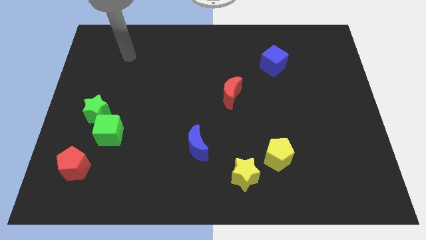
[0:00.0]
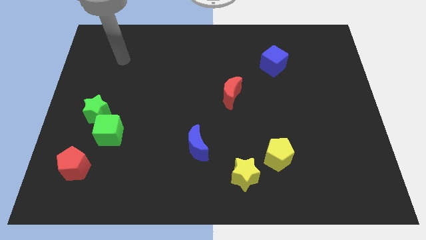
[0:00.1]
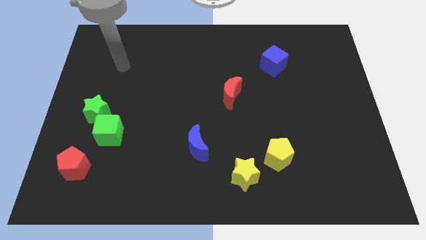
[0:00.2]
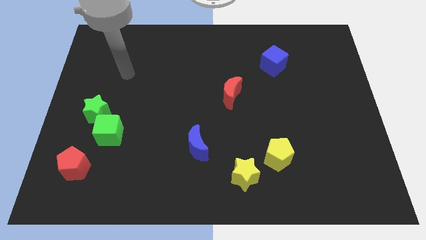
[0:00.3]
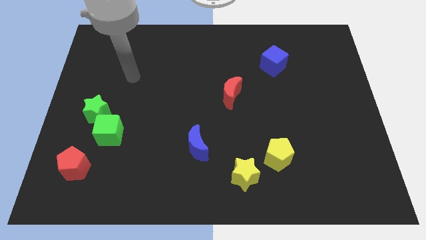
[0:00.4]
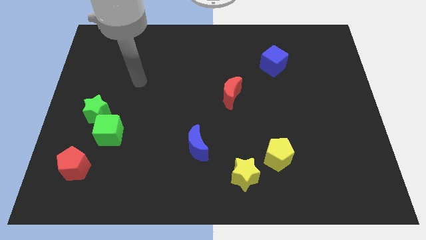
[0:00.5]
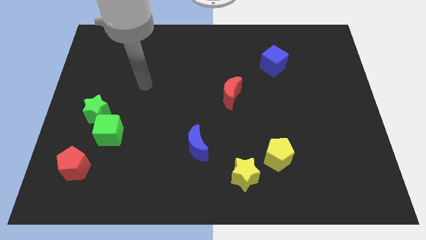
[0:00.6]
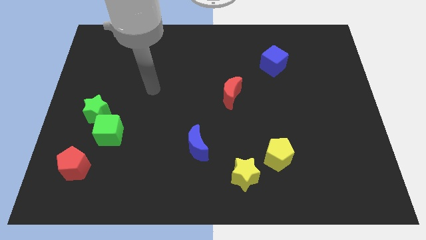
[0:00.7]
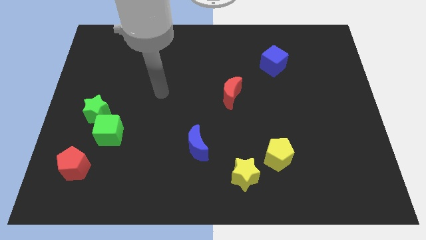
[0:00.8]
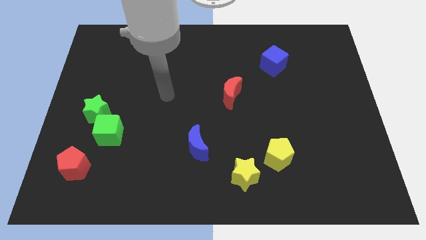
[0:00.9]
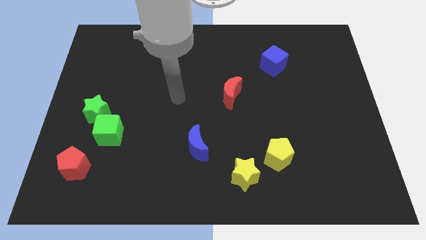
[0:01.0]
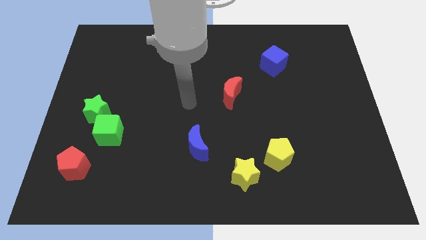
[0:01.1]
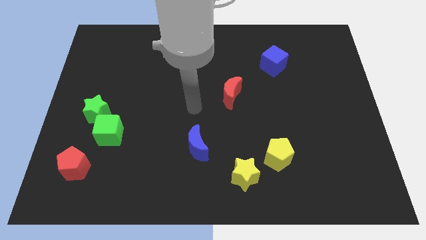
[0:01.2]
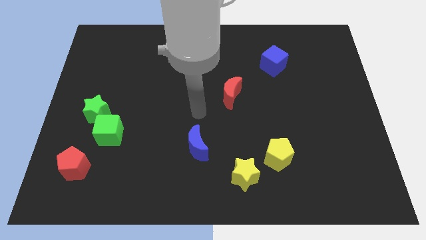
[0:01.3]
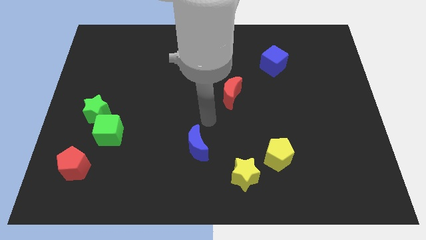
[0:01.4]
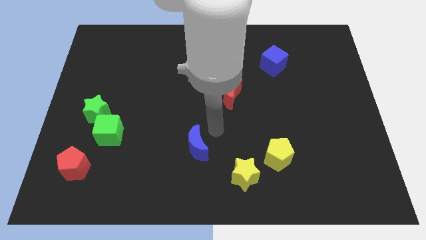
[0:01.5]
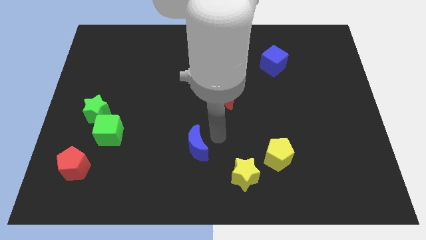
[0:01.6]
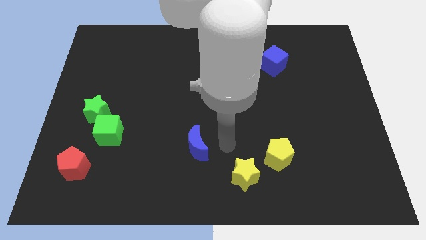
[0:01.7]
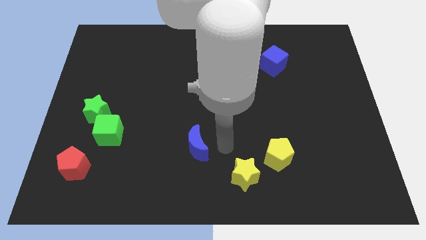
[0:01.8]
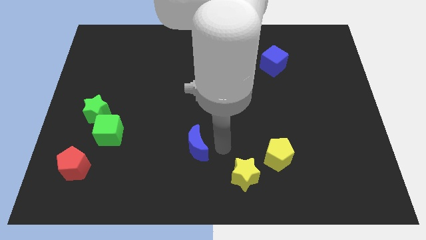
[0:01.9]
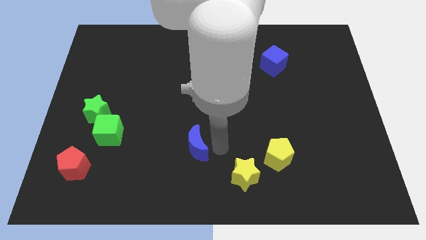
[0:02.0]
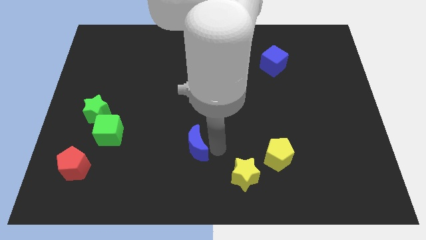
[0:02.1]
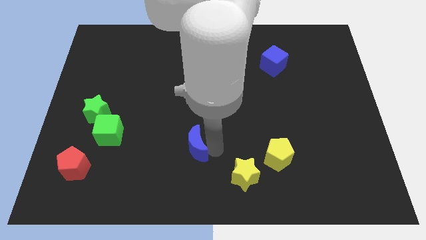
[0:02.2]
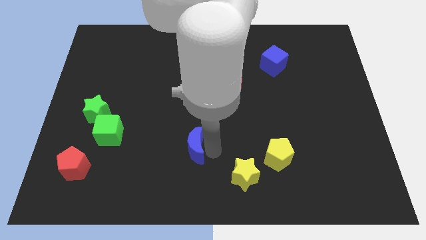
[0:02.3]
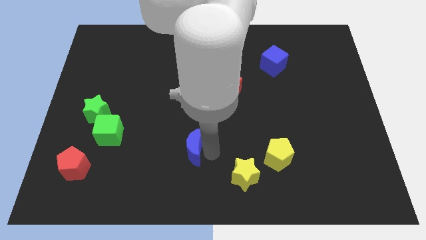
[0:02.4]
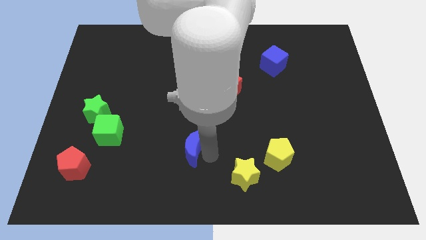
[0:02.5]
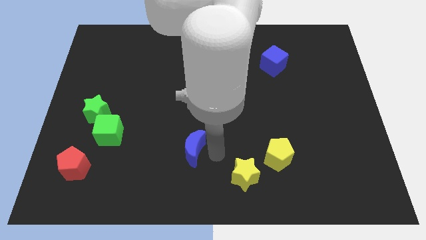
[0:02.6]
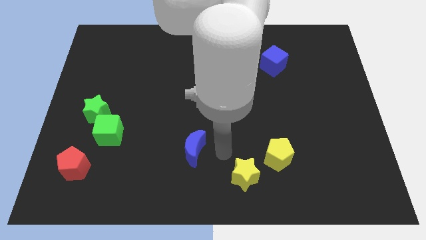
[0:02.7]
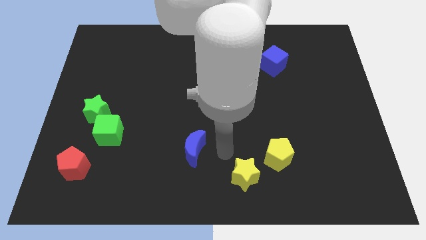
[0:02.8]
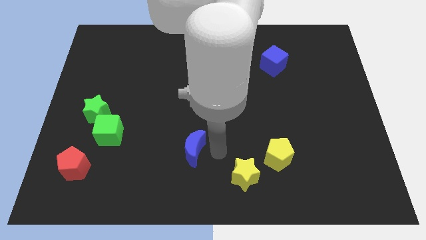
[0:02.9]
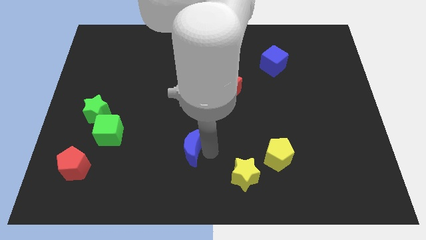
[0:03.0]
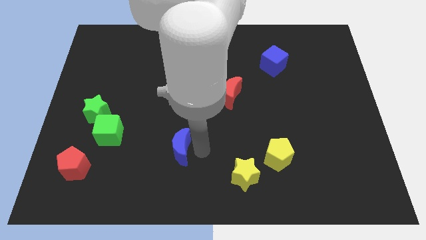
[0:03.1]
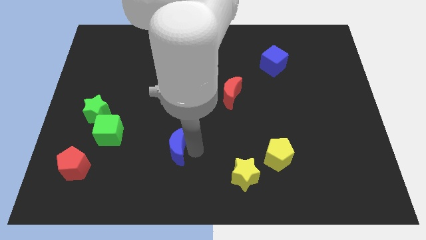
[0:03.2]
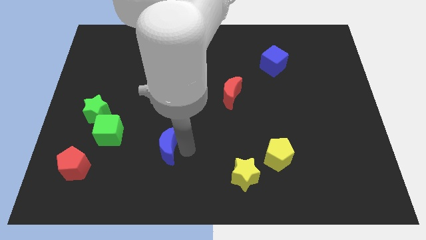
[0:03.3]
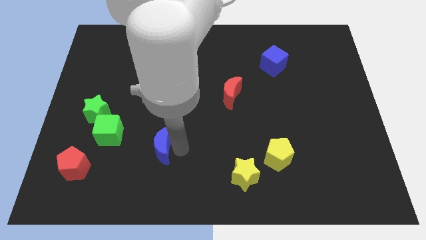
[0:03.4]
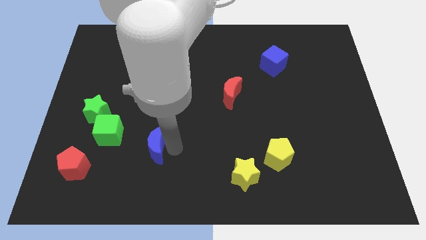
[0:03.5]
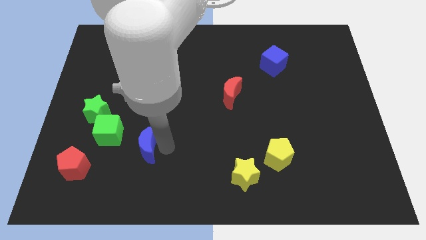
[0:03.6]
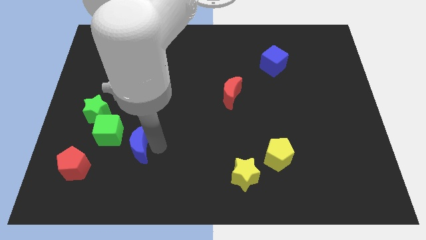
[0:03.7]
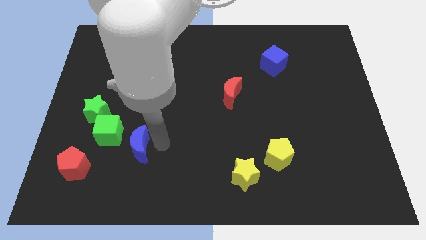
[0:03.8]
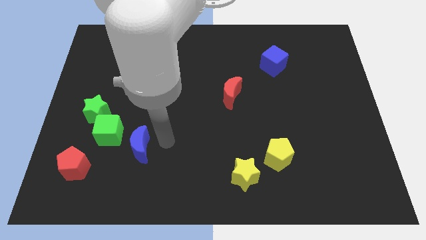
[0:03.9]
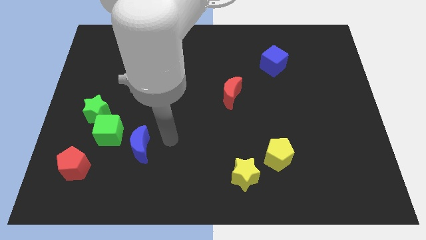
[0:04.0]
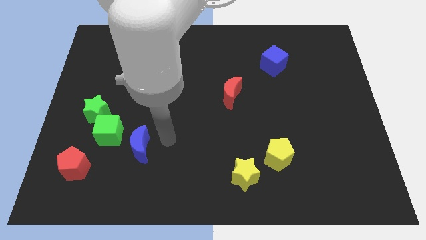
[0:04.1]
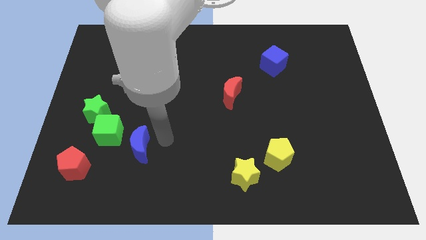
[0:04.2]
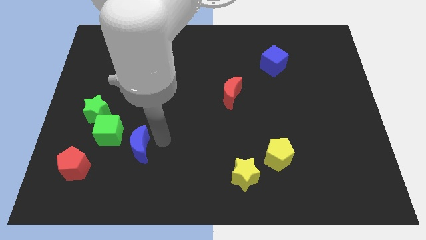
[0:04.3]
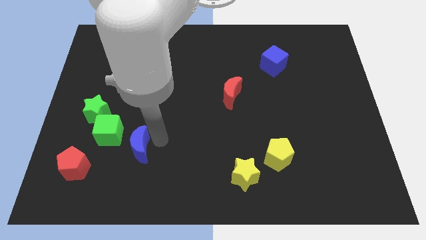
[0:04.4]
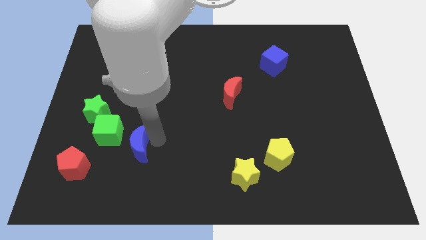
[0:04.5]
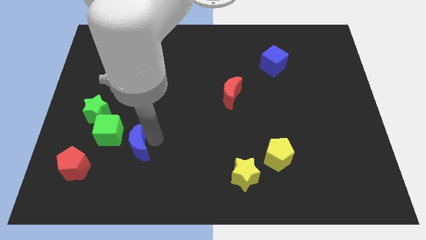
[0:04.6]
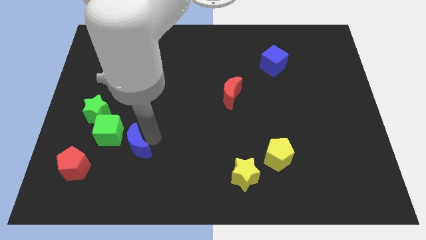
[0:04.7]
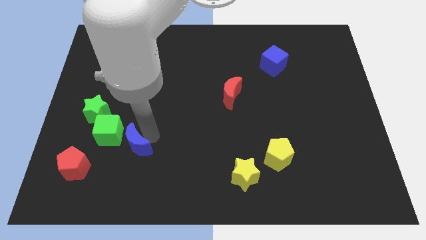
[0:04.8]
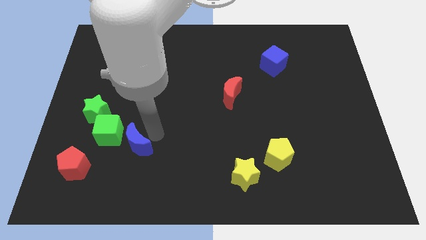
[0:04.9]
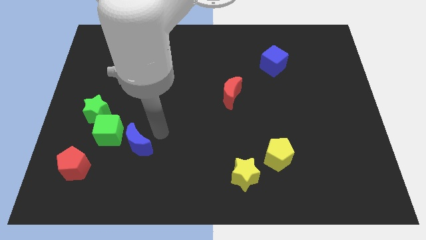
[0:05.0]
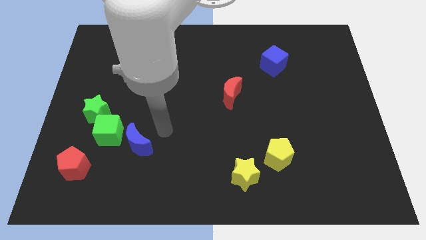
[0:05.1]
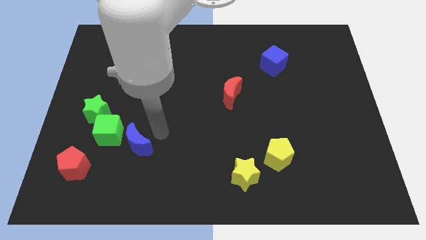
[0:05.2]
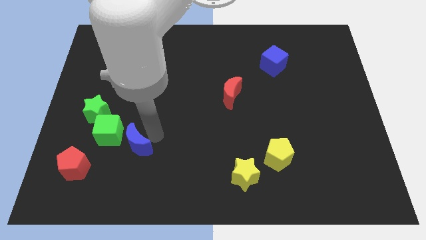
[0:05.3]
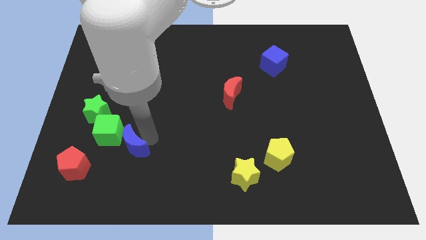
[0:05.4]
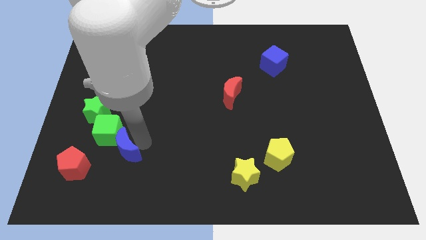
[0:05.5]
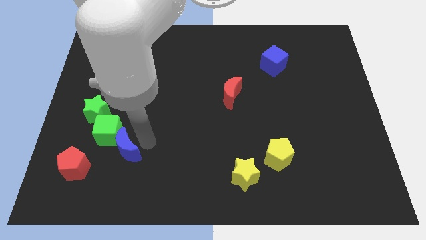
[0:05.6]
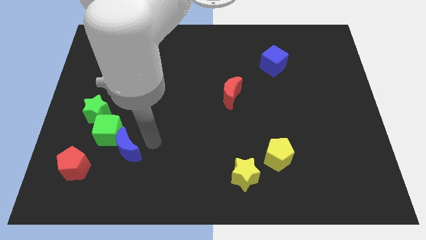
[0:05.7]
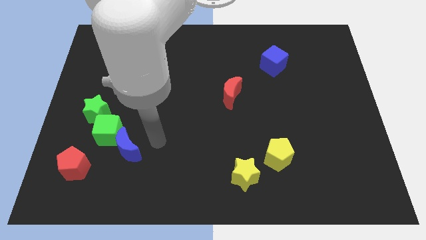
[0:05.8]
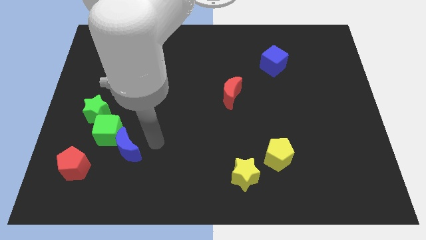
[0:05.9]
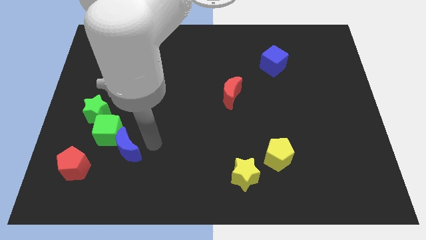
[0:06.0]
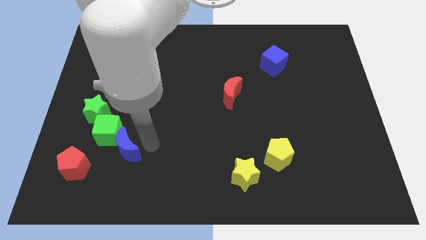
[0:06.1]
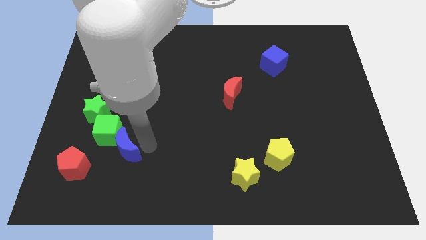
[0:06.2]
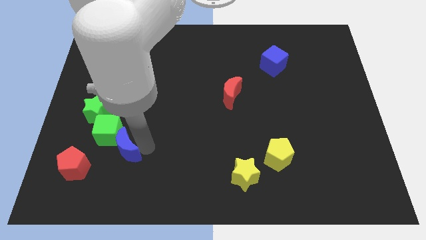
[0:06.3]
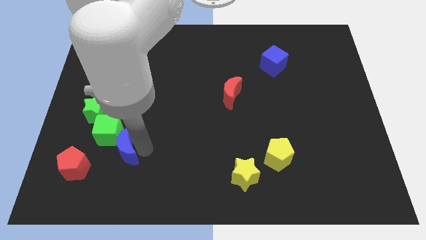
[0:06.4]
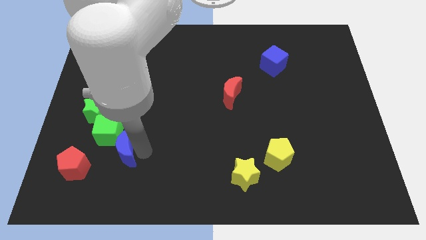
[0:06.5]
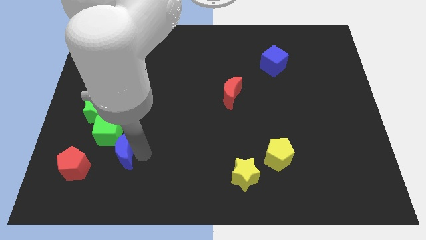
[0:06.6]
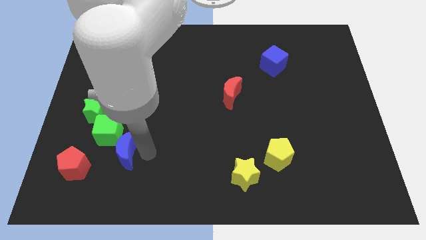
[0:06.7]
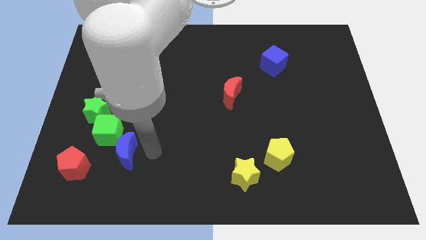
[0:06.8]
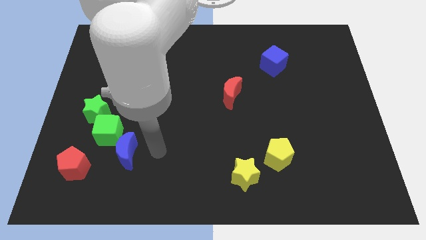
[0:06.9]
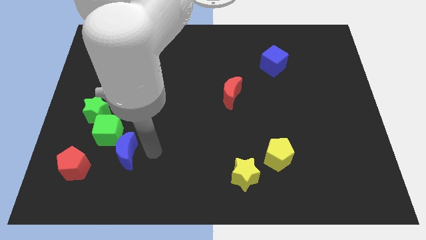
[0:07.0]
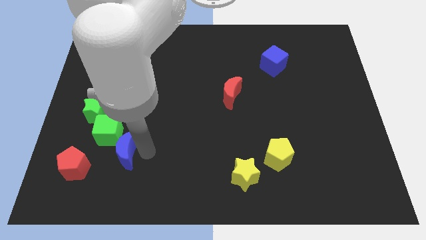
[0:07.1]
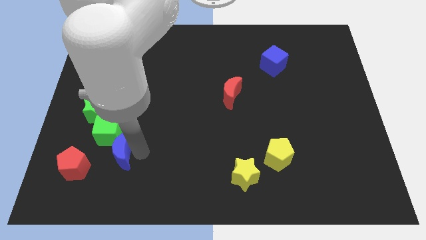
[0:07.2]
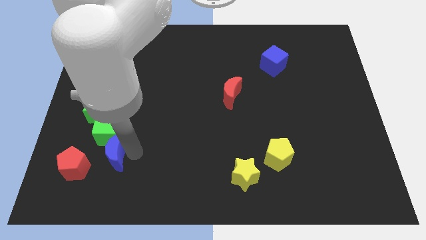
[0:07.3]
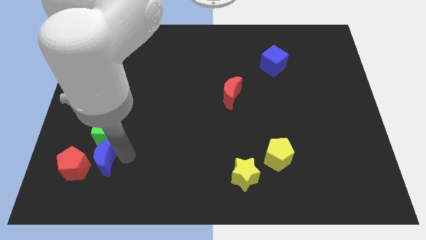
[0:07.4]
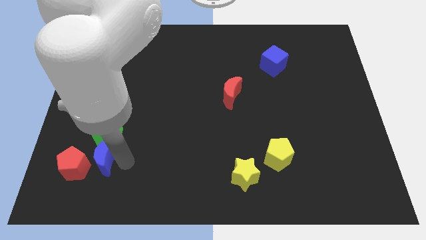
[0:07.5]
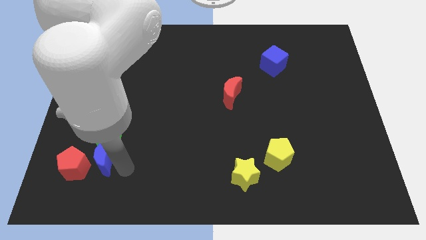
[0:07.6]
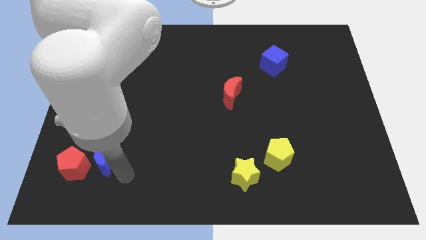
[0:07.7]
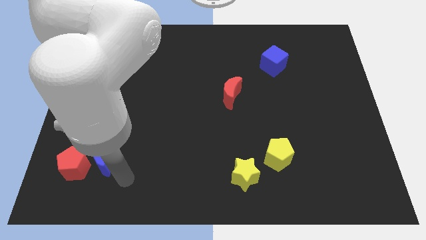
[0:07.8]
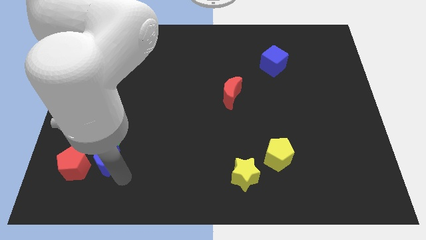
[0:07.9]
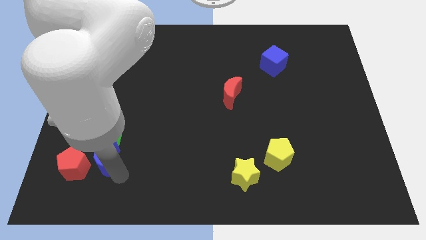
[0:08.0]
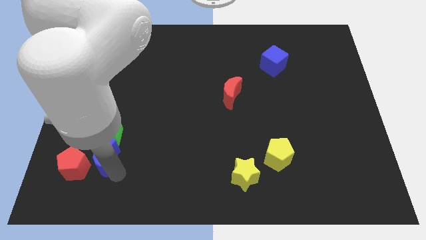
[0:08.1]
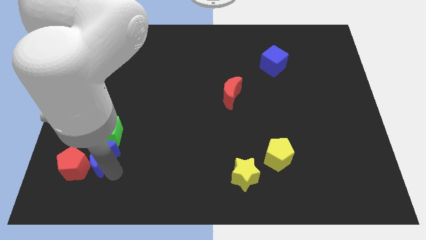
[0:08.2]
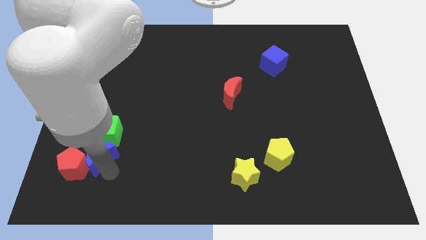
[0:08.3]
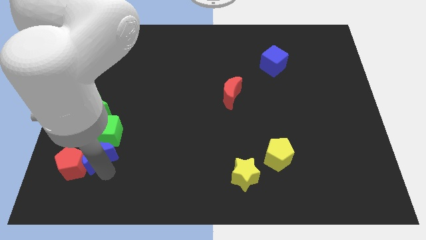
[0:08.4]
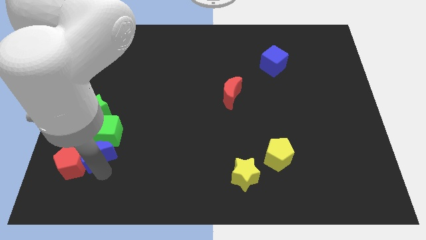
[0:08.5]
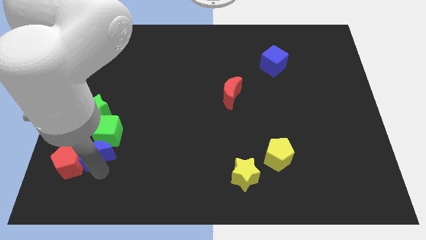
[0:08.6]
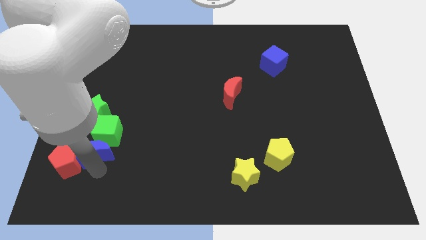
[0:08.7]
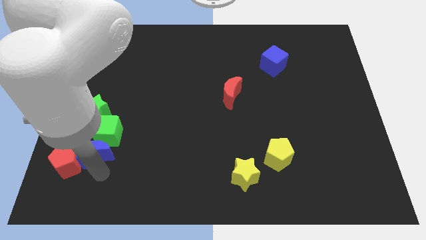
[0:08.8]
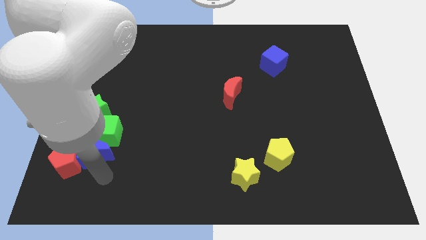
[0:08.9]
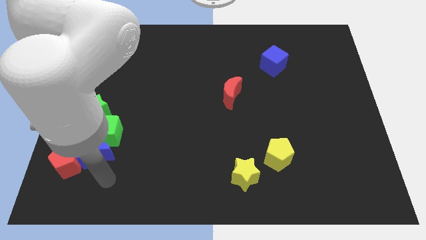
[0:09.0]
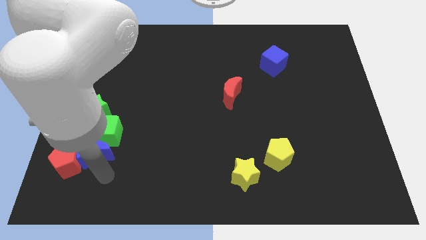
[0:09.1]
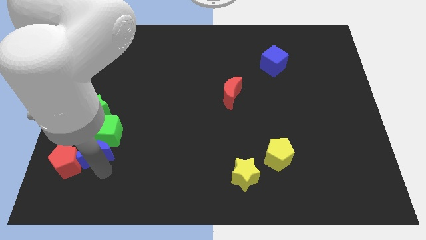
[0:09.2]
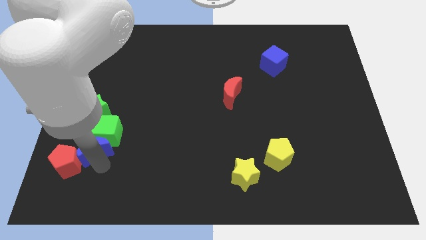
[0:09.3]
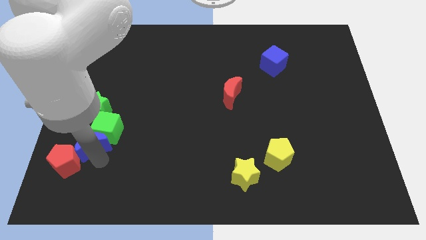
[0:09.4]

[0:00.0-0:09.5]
move the blue moon above the red pentagon
